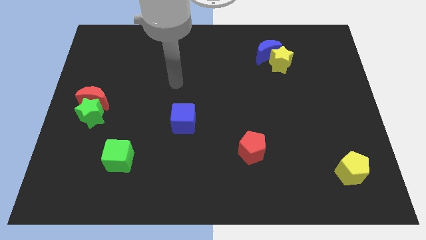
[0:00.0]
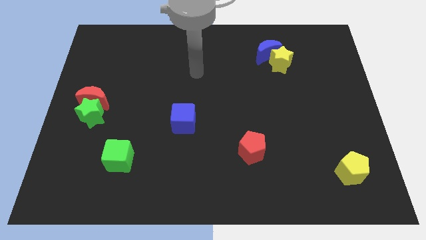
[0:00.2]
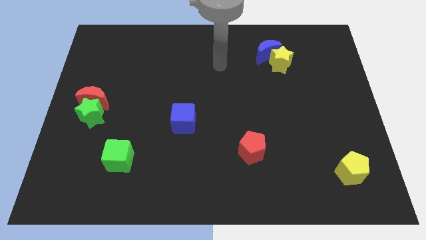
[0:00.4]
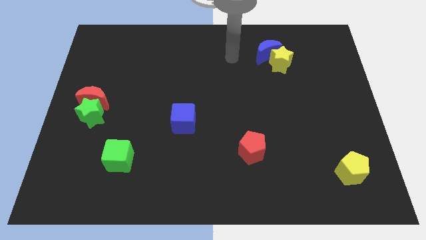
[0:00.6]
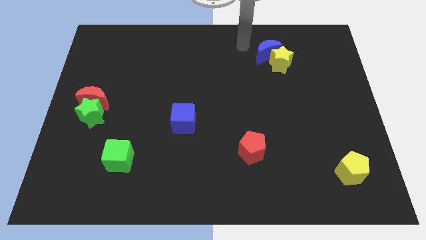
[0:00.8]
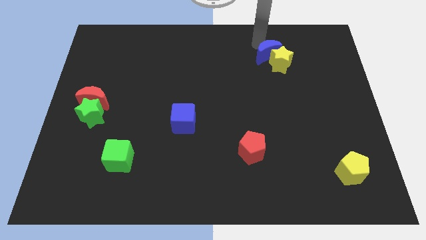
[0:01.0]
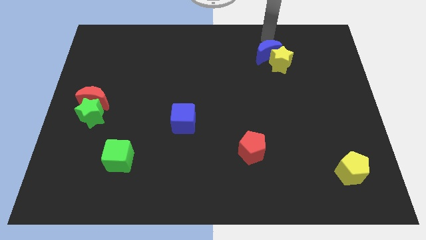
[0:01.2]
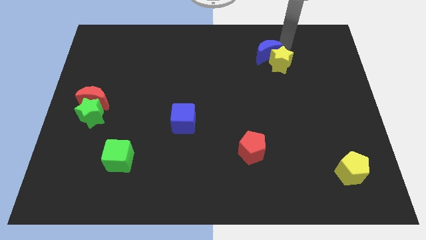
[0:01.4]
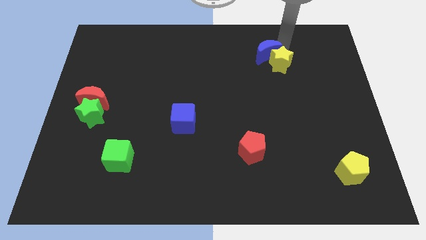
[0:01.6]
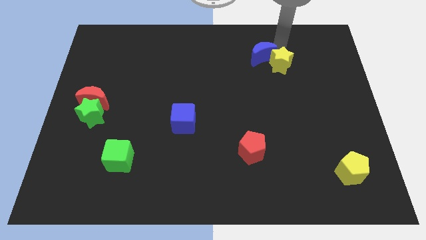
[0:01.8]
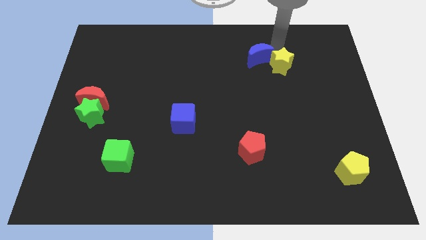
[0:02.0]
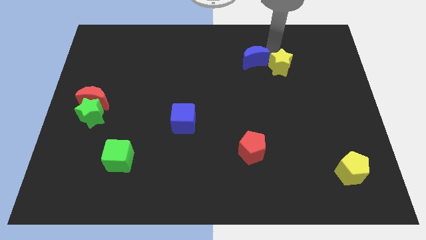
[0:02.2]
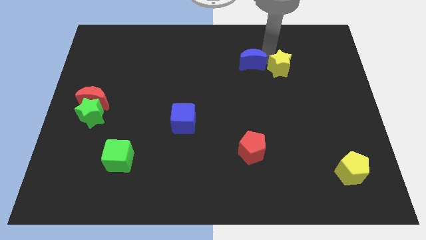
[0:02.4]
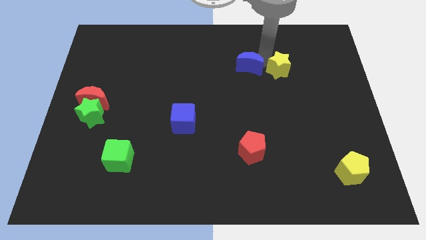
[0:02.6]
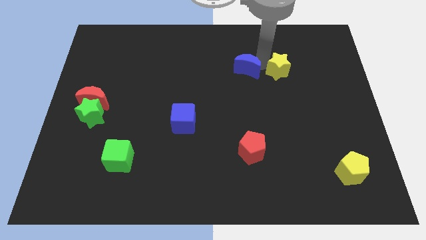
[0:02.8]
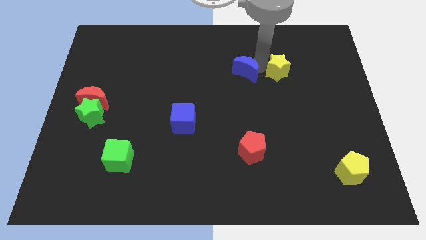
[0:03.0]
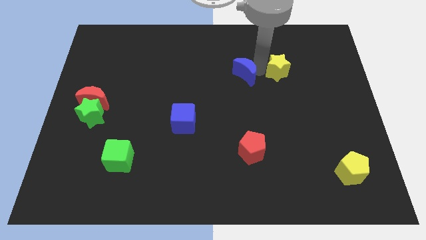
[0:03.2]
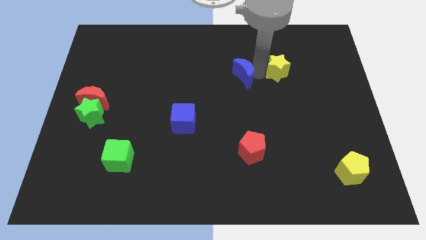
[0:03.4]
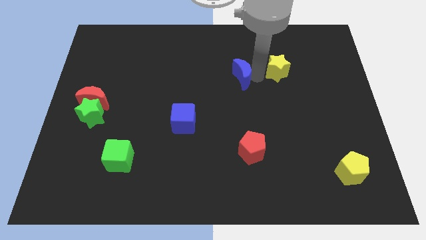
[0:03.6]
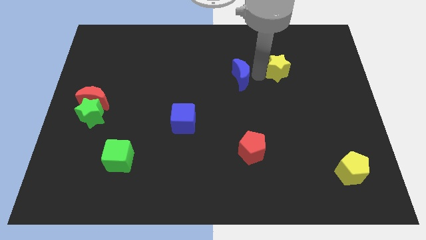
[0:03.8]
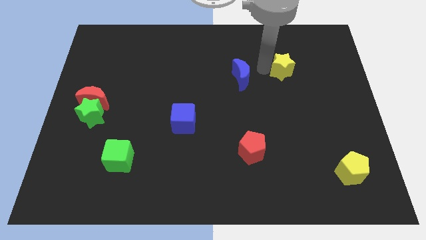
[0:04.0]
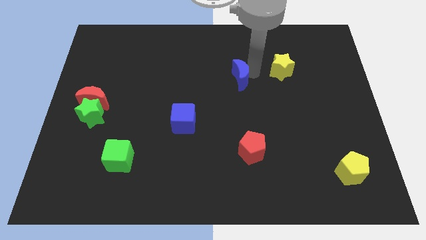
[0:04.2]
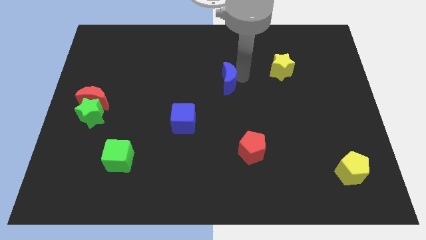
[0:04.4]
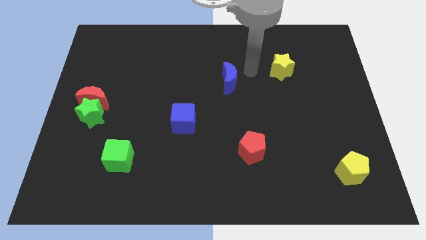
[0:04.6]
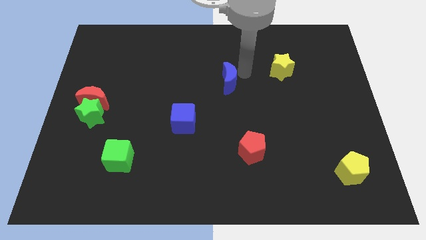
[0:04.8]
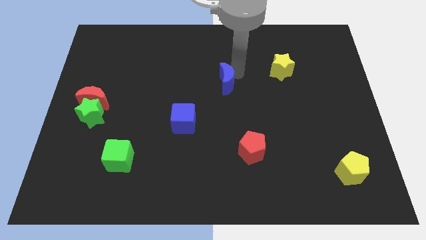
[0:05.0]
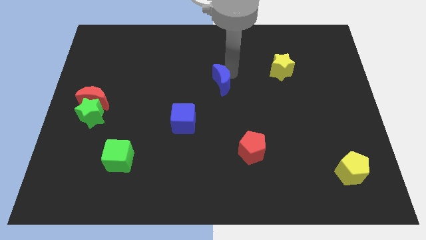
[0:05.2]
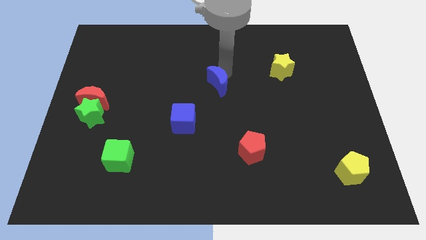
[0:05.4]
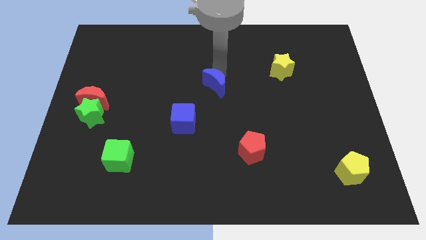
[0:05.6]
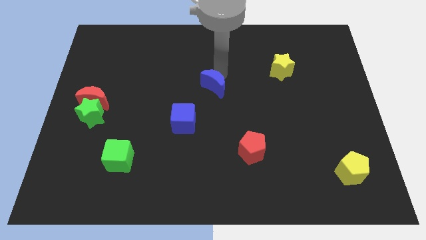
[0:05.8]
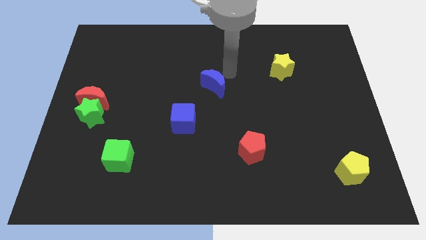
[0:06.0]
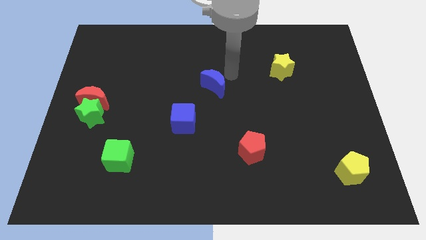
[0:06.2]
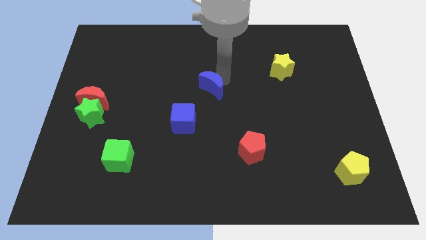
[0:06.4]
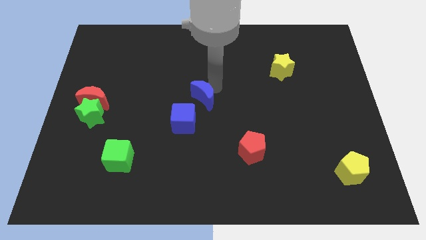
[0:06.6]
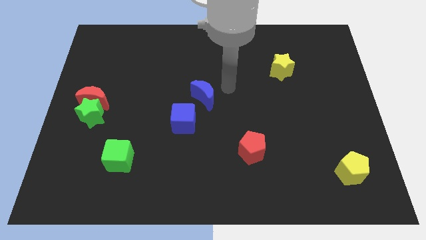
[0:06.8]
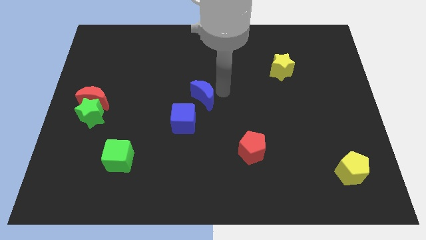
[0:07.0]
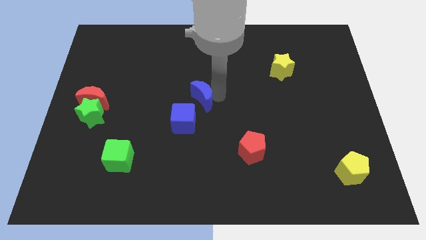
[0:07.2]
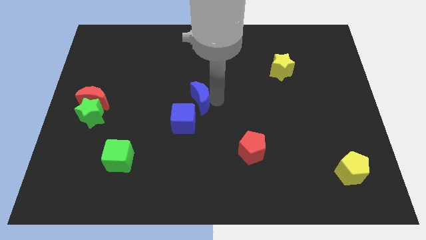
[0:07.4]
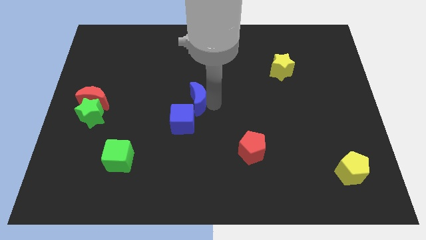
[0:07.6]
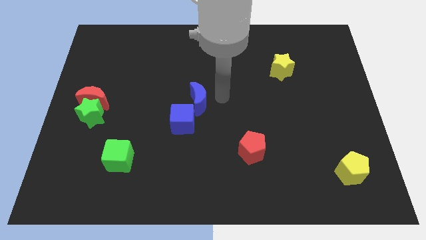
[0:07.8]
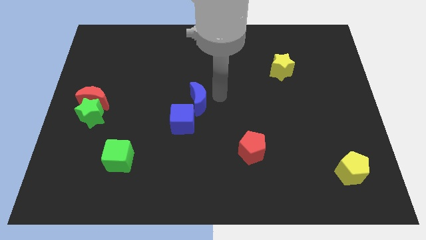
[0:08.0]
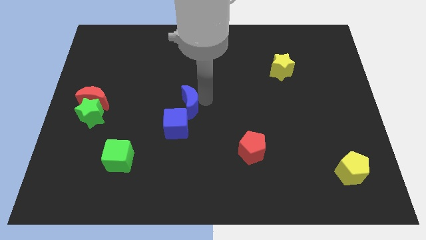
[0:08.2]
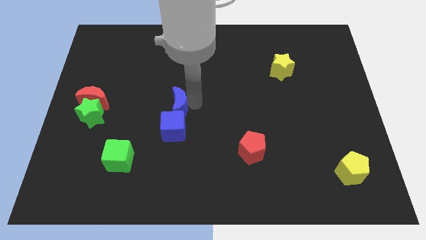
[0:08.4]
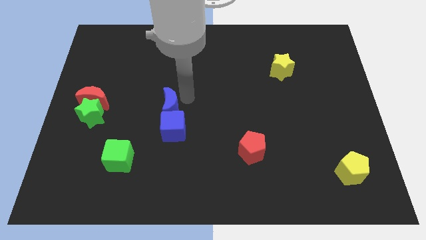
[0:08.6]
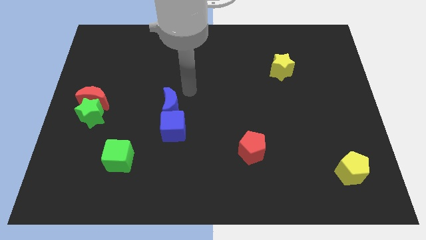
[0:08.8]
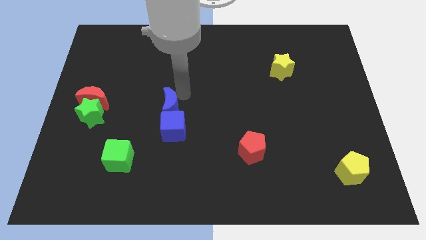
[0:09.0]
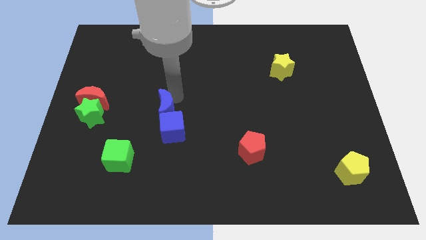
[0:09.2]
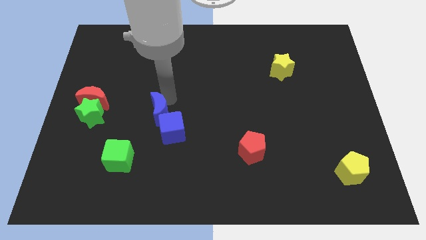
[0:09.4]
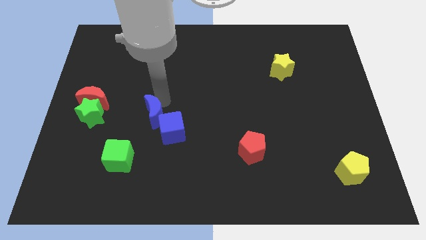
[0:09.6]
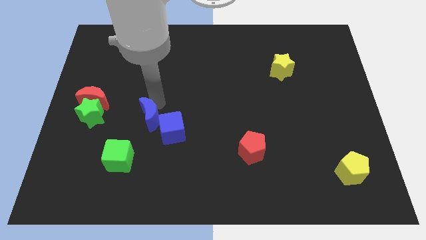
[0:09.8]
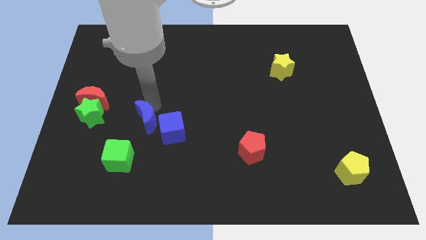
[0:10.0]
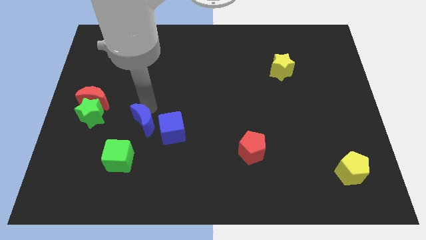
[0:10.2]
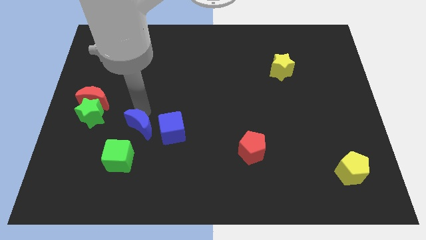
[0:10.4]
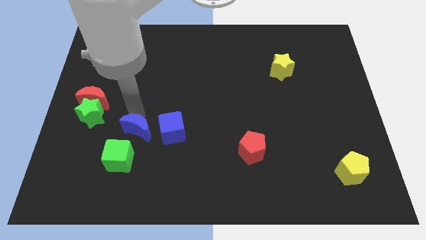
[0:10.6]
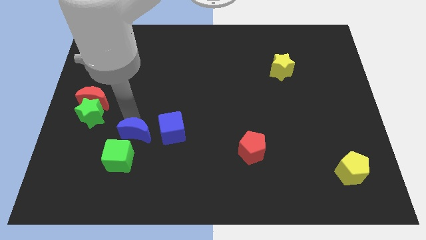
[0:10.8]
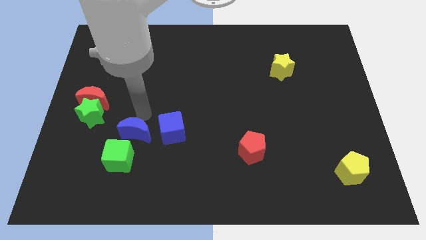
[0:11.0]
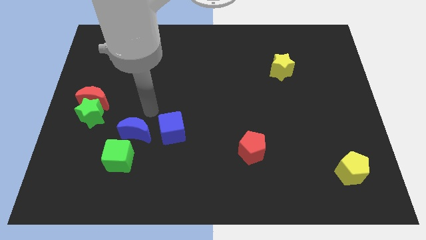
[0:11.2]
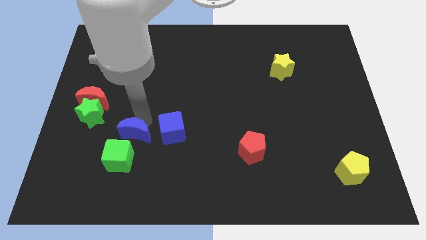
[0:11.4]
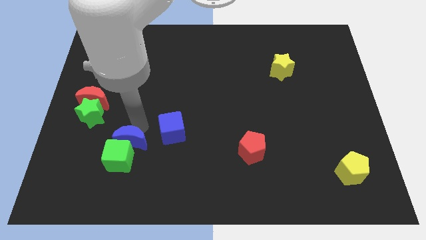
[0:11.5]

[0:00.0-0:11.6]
push the blue moon next to the green cube

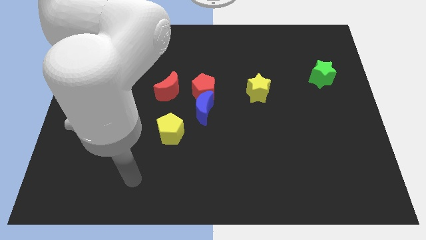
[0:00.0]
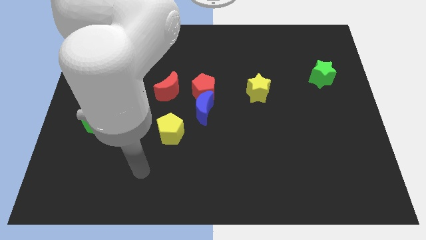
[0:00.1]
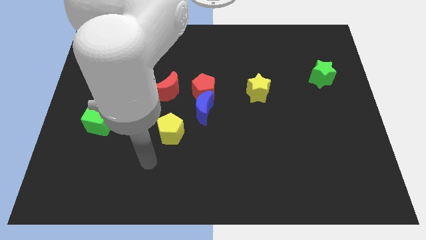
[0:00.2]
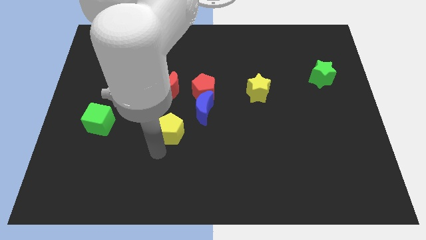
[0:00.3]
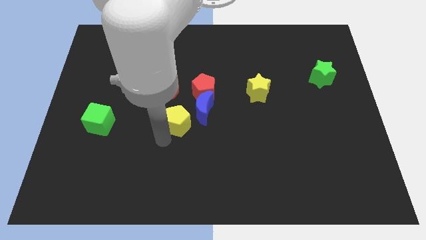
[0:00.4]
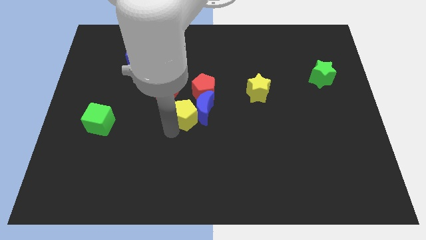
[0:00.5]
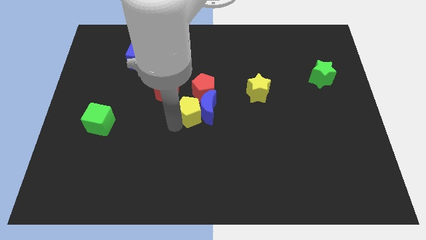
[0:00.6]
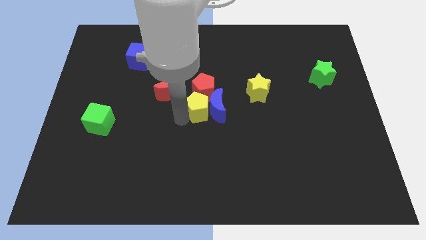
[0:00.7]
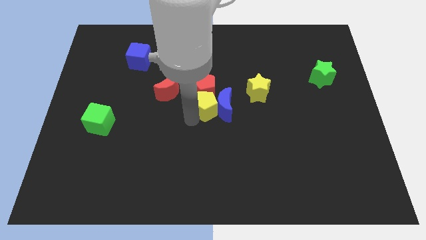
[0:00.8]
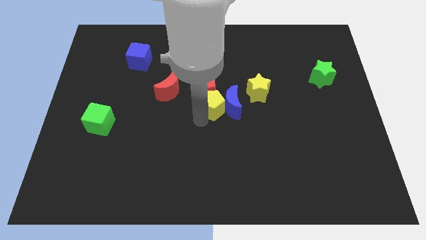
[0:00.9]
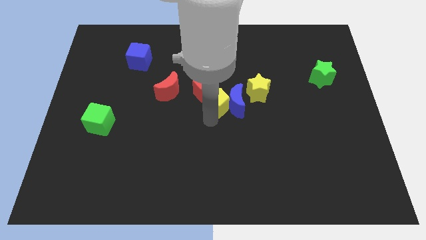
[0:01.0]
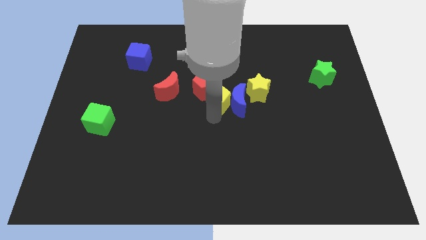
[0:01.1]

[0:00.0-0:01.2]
put the blue moon to the yellow star
